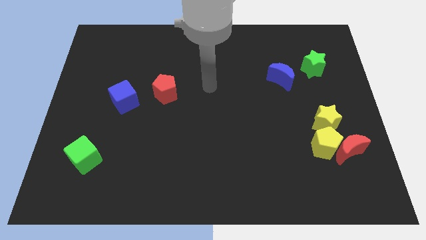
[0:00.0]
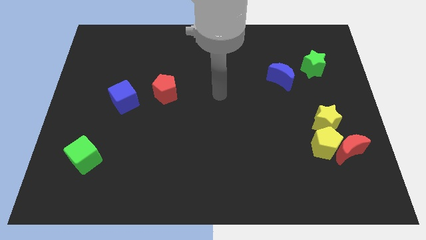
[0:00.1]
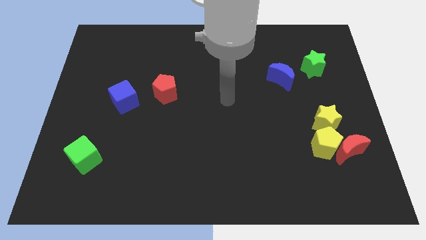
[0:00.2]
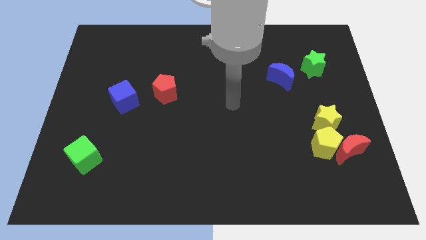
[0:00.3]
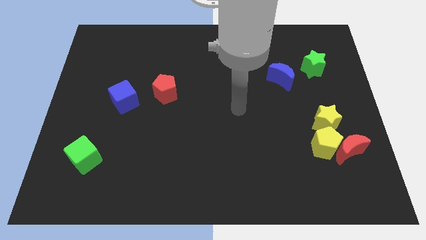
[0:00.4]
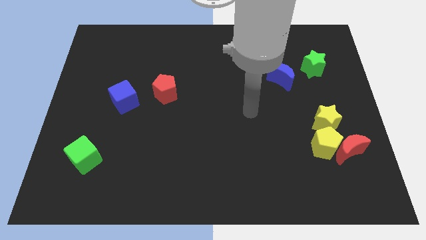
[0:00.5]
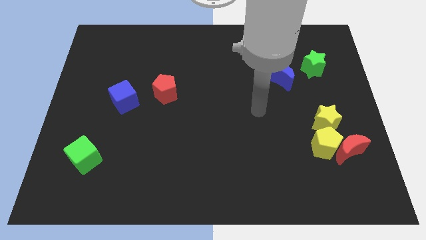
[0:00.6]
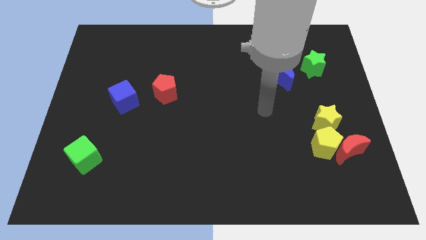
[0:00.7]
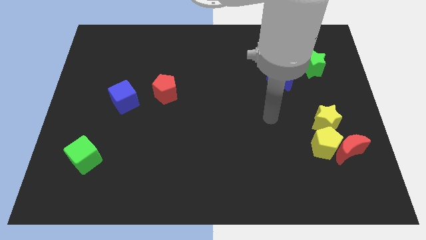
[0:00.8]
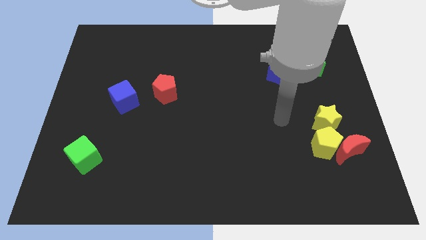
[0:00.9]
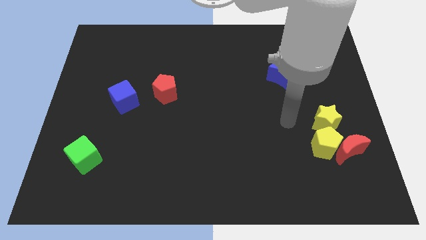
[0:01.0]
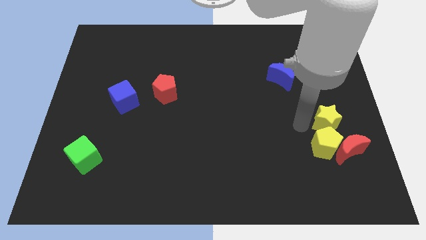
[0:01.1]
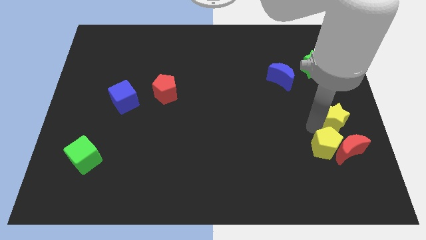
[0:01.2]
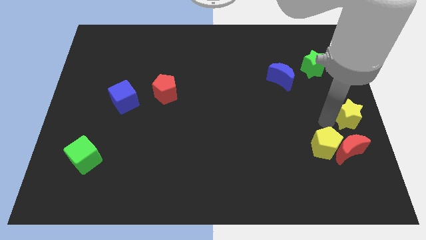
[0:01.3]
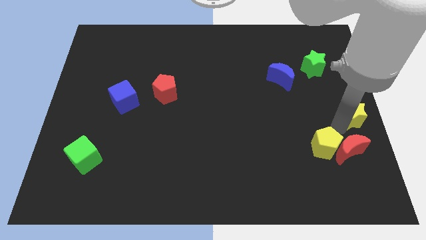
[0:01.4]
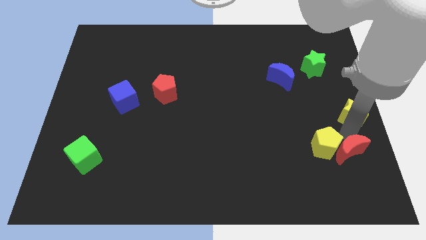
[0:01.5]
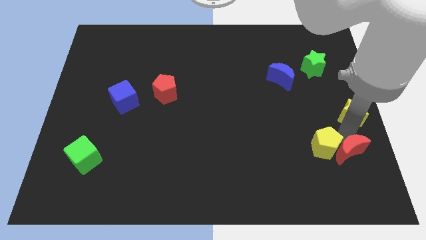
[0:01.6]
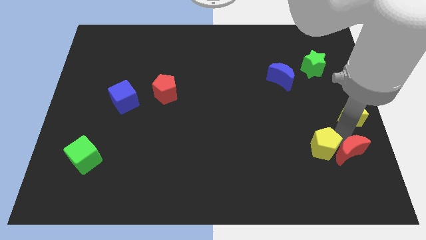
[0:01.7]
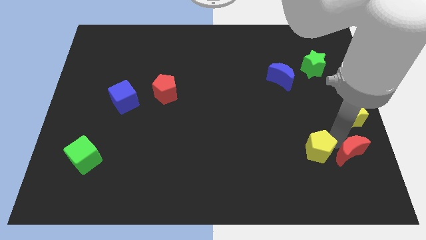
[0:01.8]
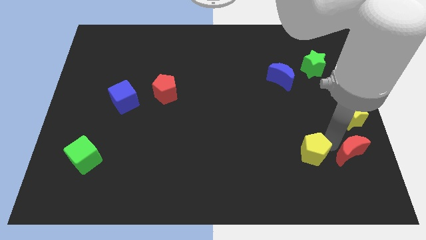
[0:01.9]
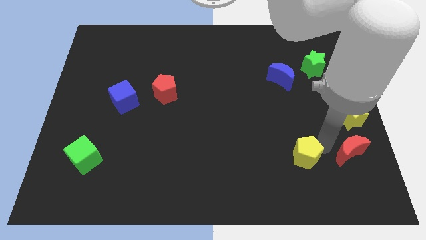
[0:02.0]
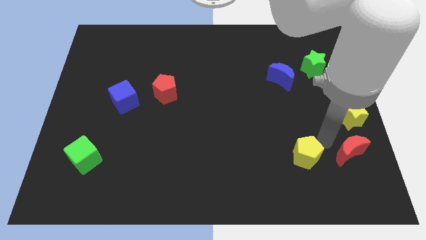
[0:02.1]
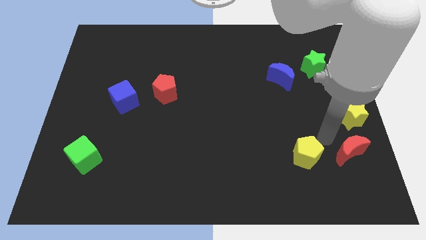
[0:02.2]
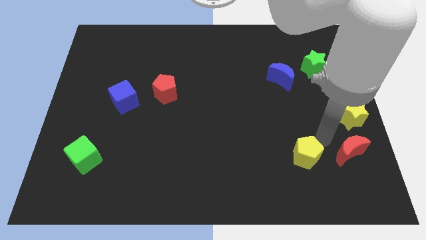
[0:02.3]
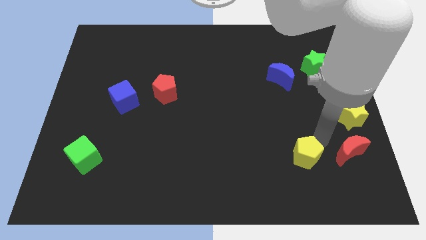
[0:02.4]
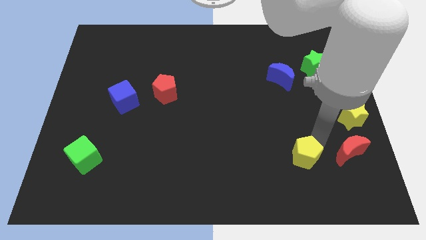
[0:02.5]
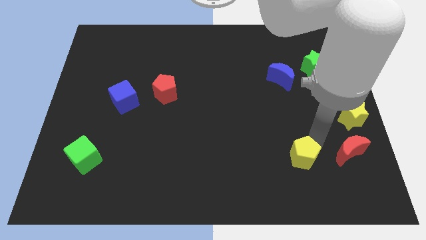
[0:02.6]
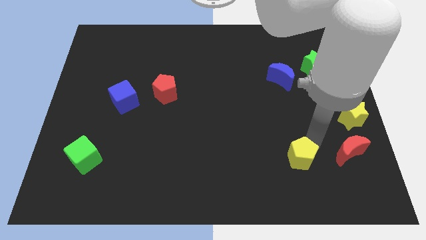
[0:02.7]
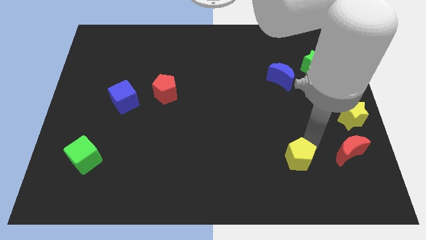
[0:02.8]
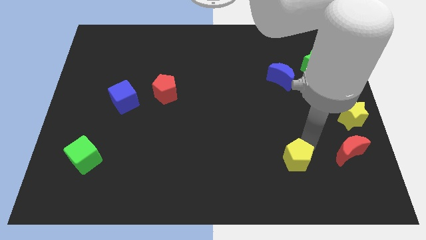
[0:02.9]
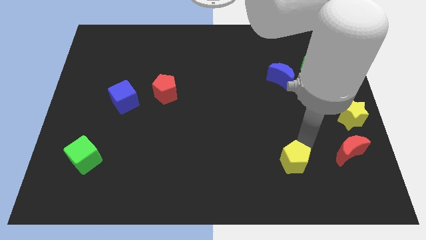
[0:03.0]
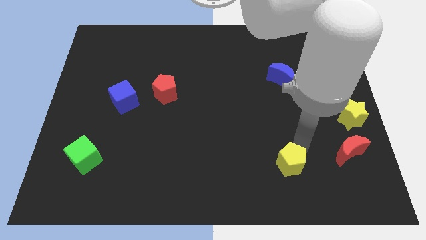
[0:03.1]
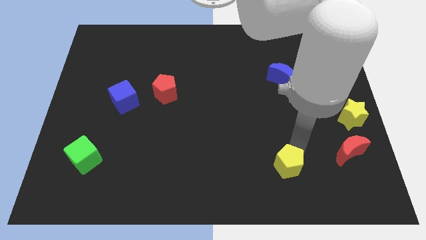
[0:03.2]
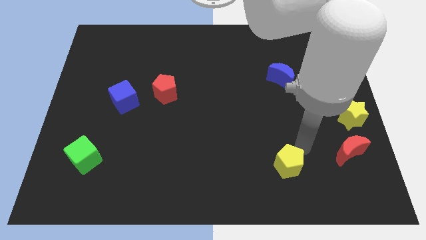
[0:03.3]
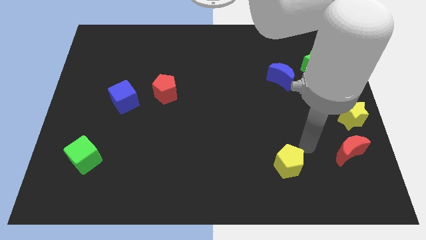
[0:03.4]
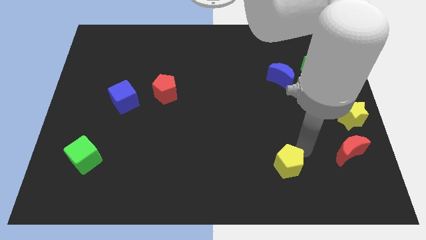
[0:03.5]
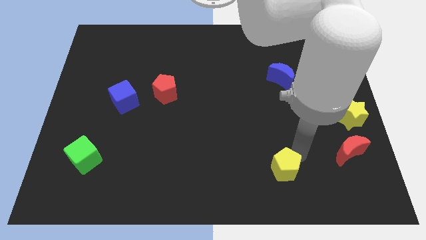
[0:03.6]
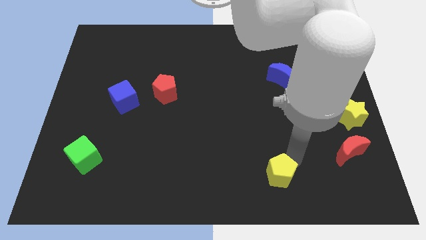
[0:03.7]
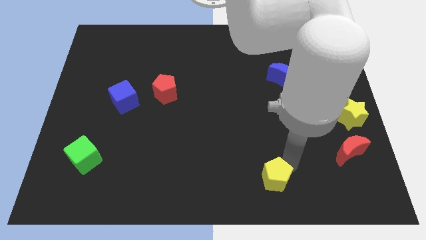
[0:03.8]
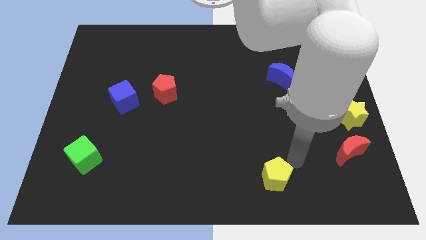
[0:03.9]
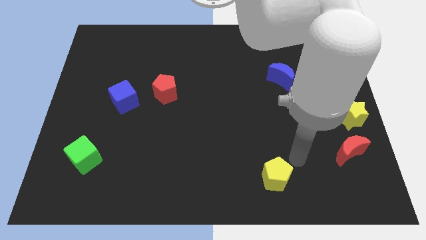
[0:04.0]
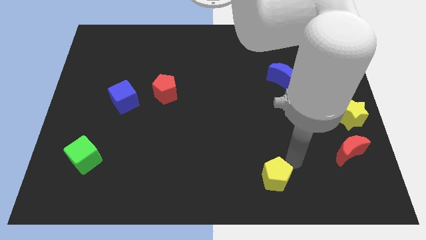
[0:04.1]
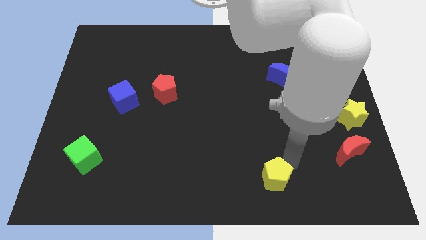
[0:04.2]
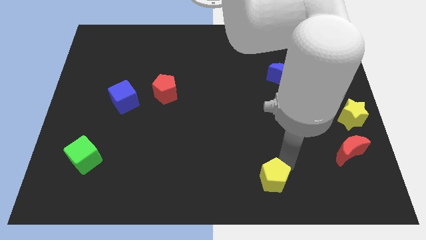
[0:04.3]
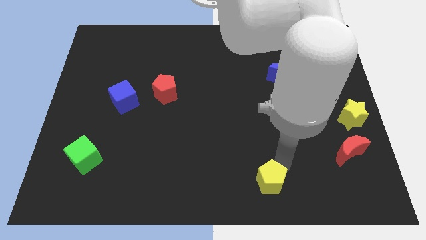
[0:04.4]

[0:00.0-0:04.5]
put the yellow pentagon to the bottom side

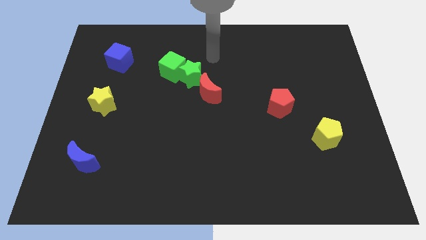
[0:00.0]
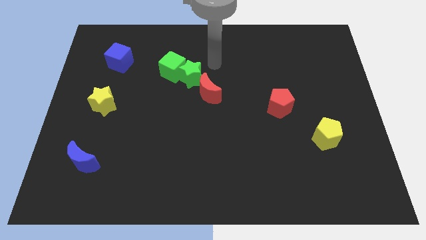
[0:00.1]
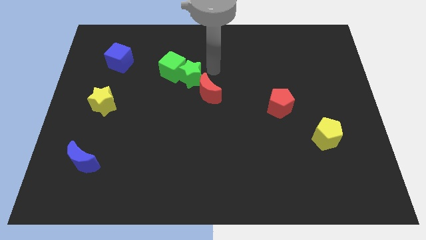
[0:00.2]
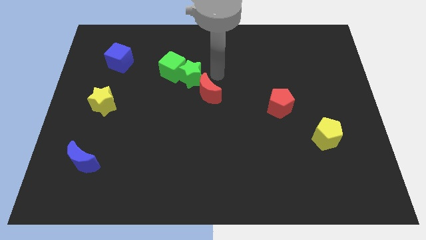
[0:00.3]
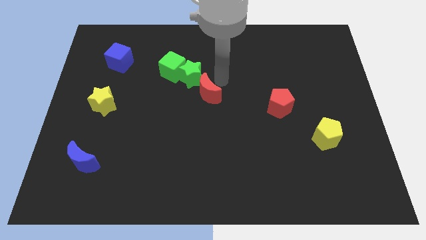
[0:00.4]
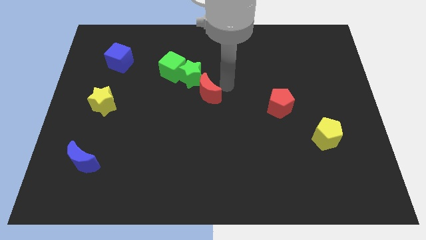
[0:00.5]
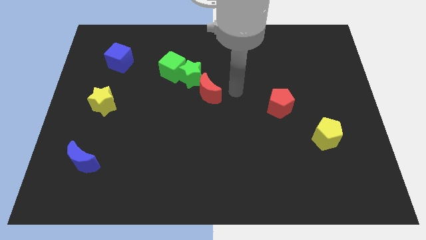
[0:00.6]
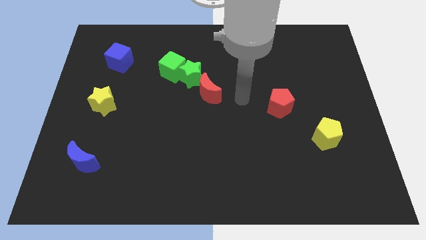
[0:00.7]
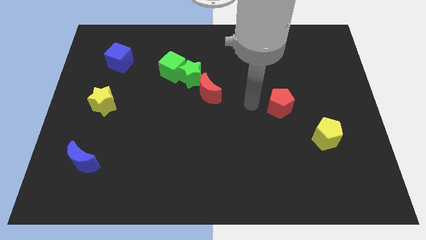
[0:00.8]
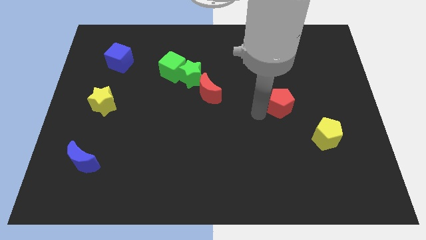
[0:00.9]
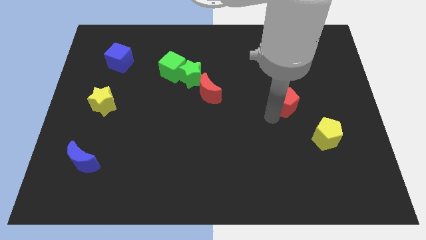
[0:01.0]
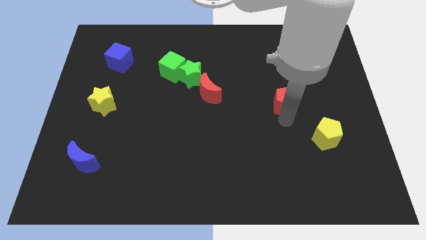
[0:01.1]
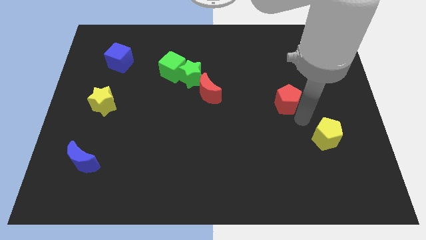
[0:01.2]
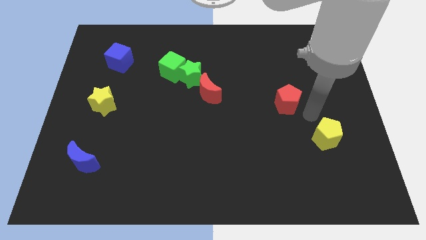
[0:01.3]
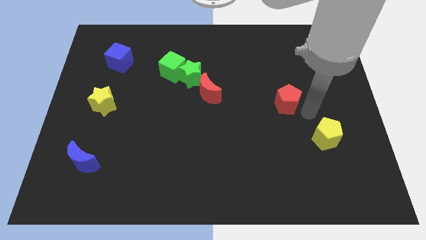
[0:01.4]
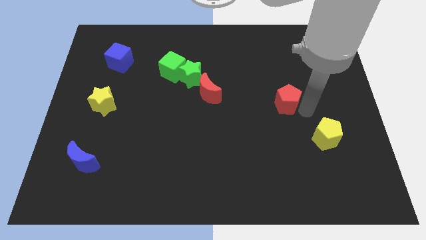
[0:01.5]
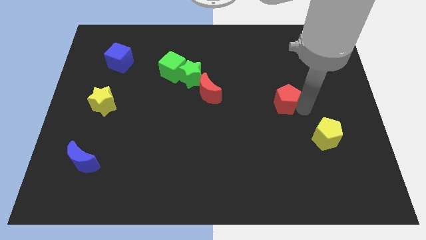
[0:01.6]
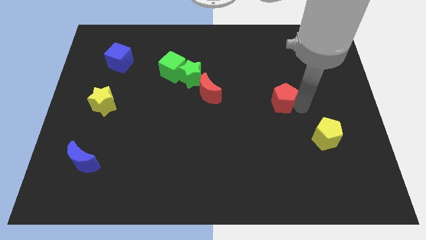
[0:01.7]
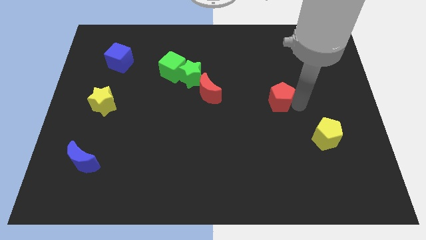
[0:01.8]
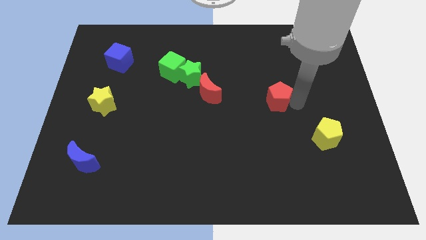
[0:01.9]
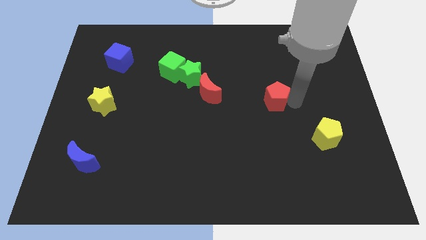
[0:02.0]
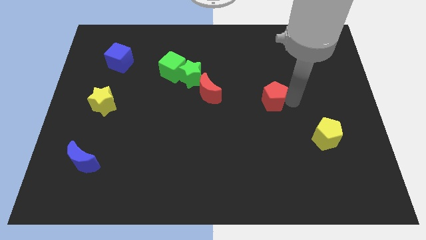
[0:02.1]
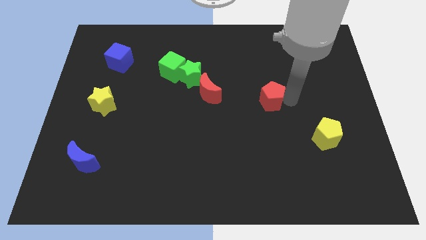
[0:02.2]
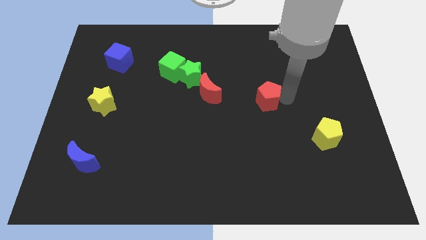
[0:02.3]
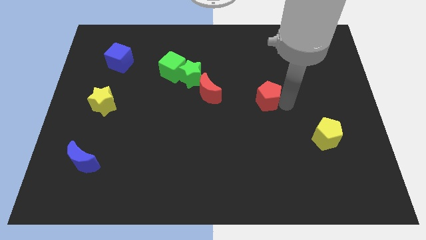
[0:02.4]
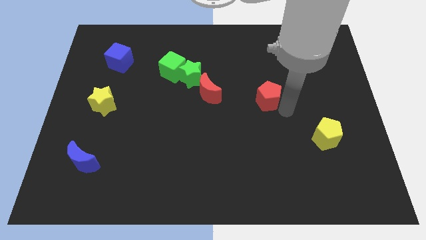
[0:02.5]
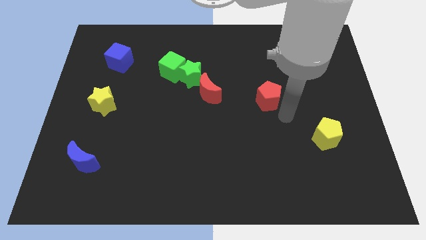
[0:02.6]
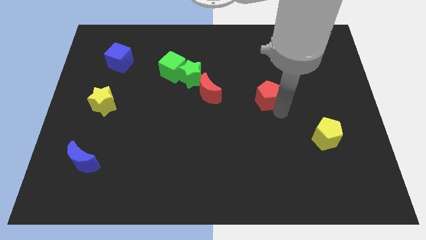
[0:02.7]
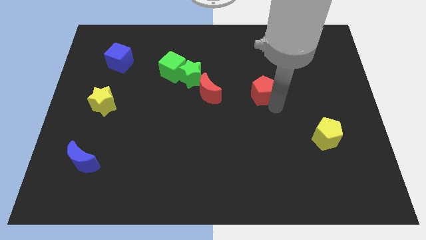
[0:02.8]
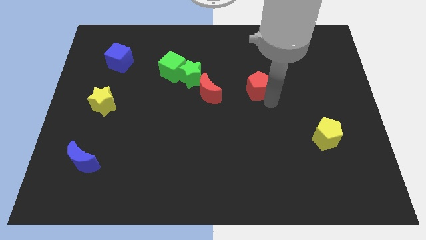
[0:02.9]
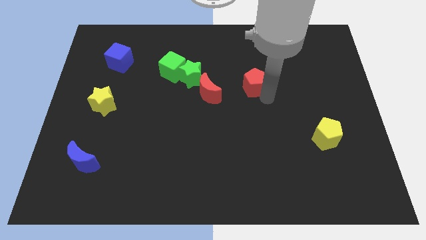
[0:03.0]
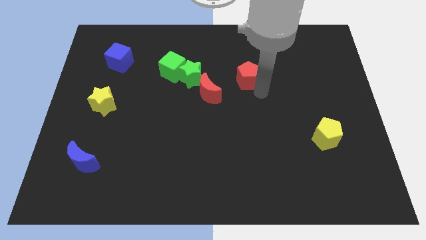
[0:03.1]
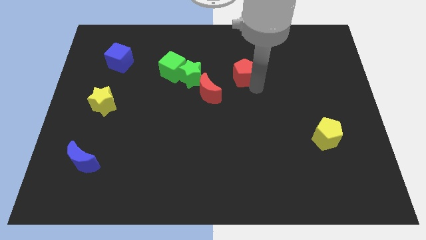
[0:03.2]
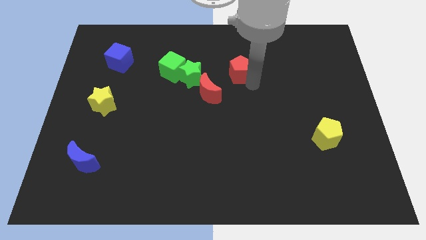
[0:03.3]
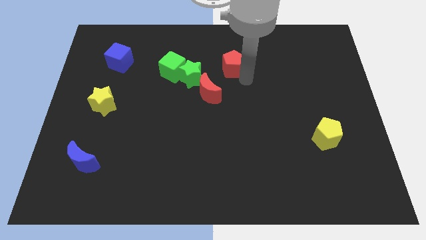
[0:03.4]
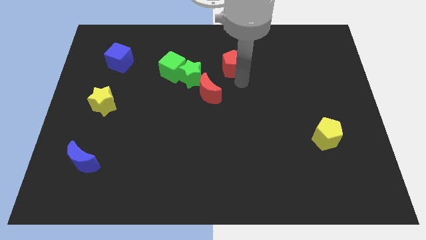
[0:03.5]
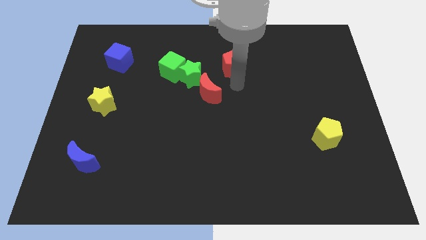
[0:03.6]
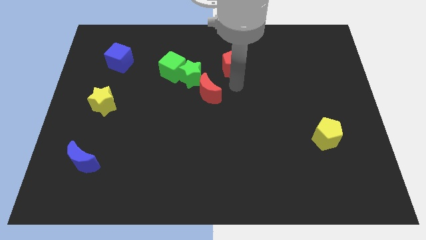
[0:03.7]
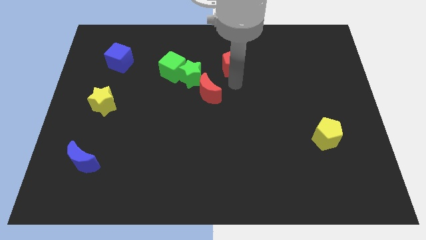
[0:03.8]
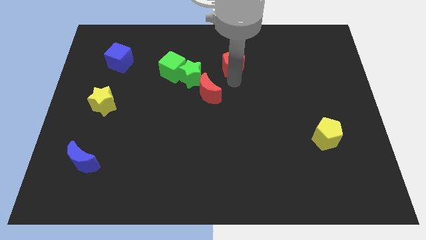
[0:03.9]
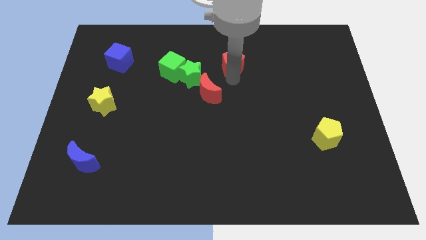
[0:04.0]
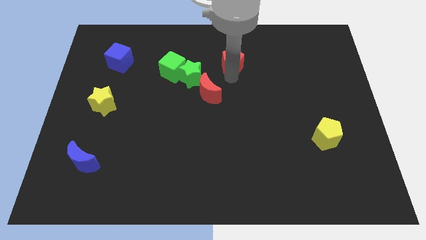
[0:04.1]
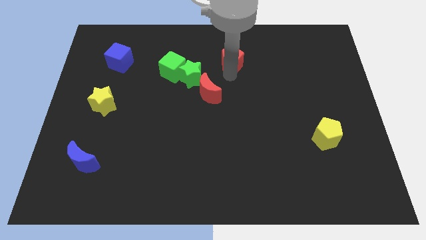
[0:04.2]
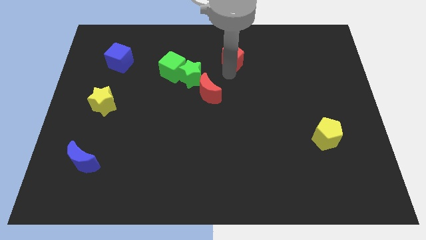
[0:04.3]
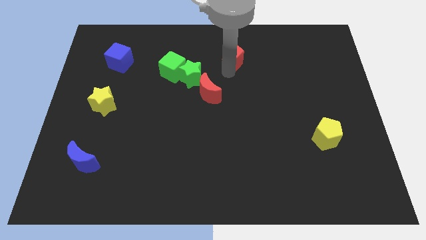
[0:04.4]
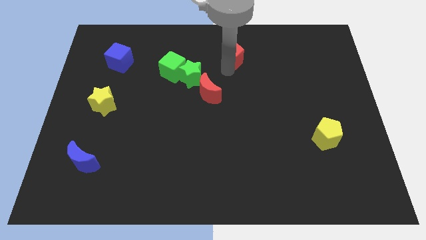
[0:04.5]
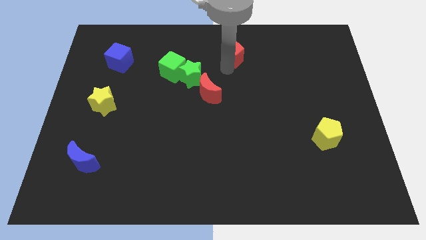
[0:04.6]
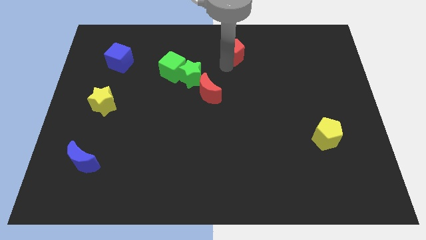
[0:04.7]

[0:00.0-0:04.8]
slide the red pentagon to the top side
